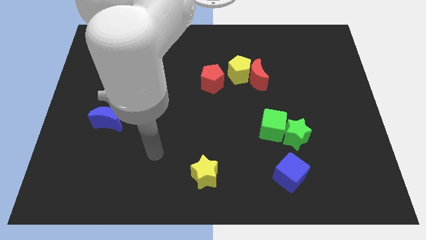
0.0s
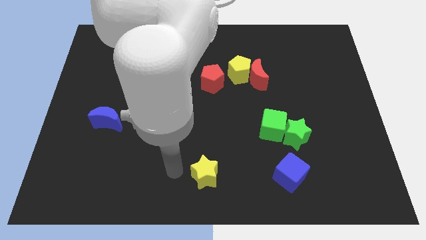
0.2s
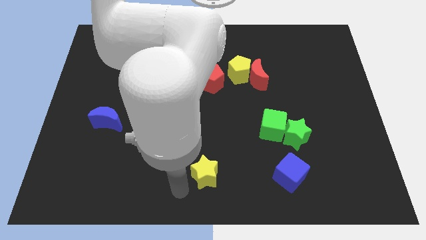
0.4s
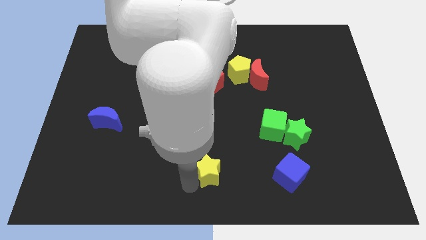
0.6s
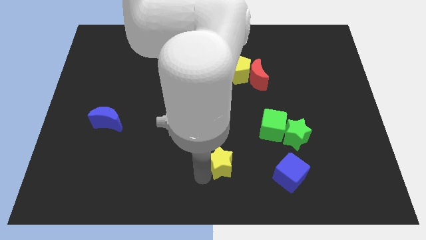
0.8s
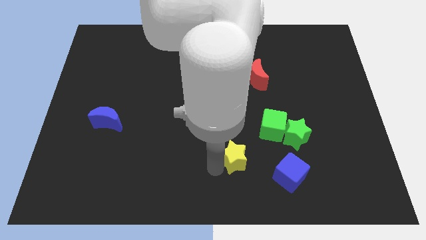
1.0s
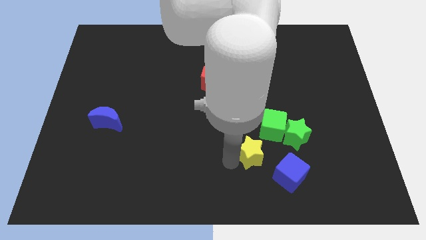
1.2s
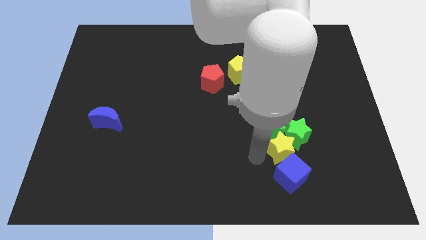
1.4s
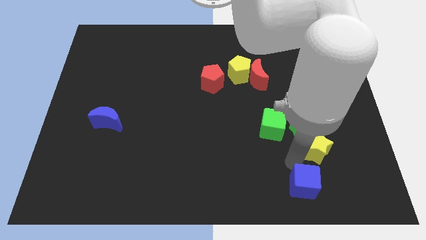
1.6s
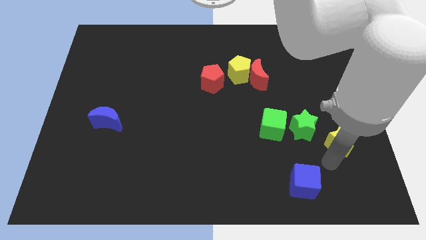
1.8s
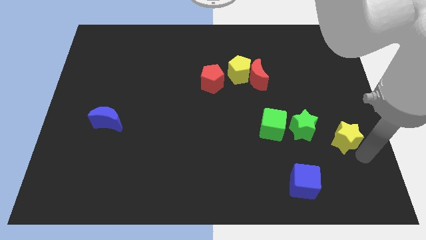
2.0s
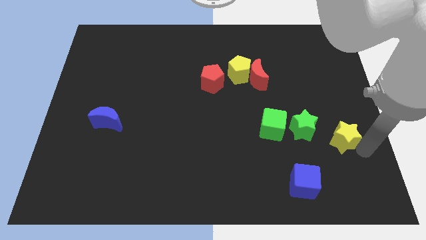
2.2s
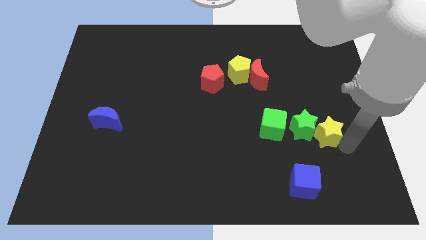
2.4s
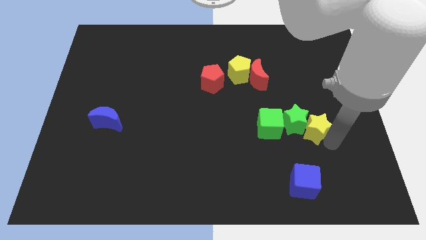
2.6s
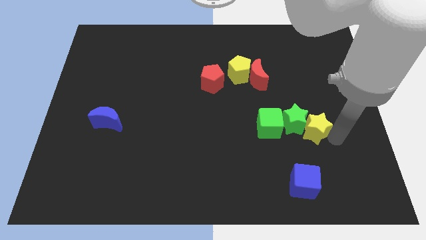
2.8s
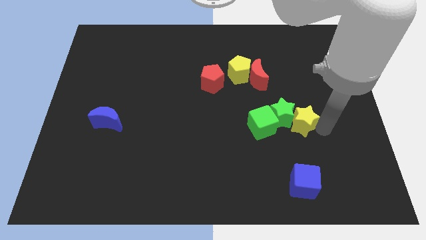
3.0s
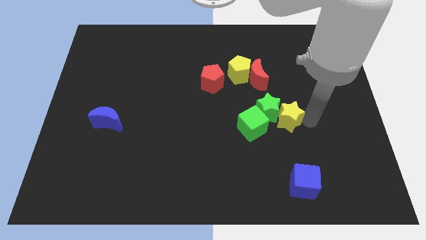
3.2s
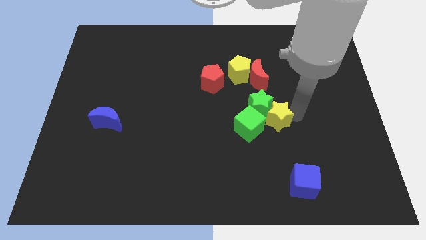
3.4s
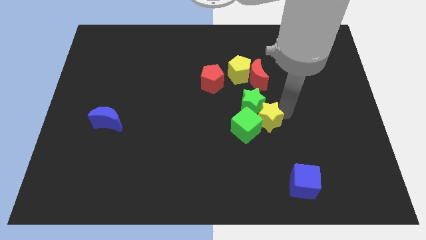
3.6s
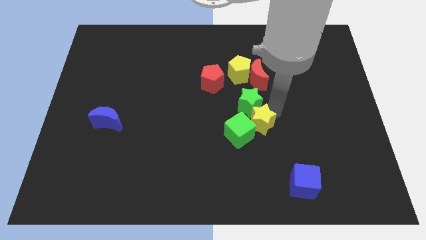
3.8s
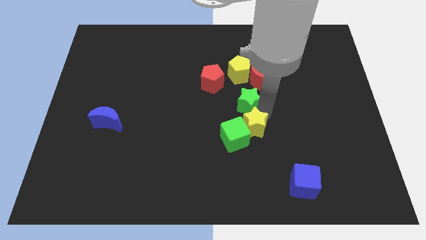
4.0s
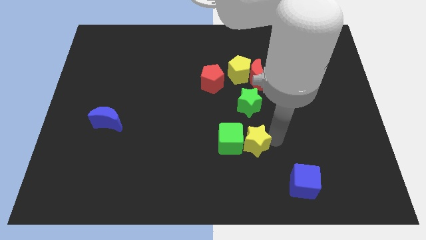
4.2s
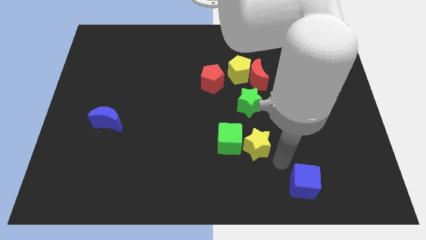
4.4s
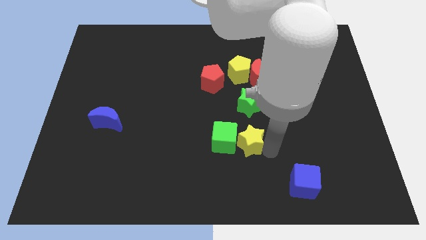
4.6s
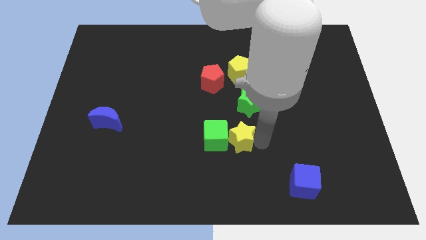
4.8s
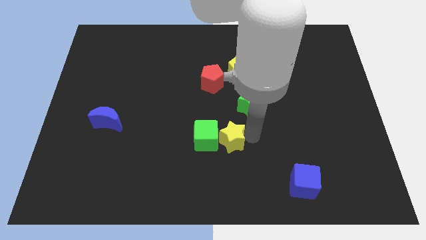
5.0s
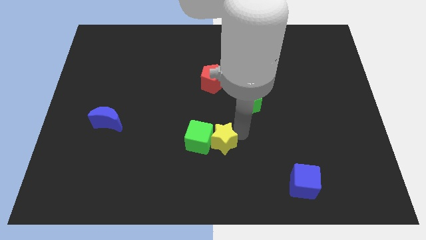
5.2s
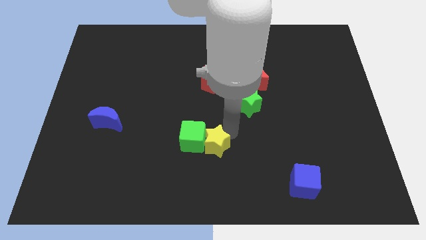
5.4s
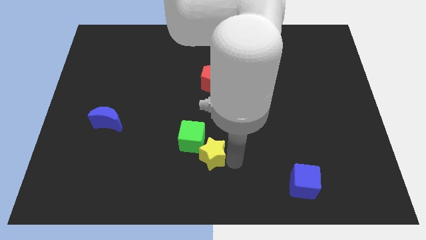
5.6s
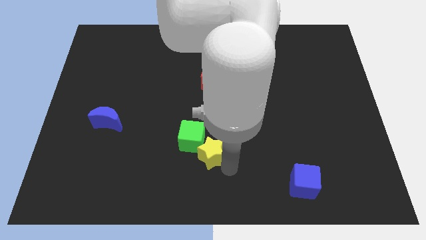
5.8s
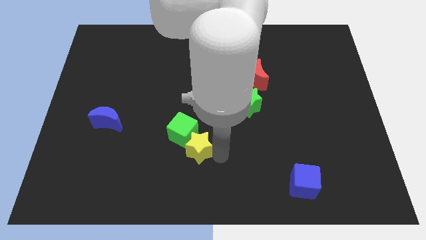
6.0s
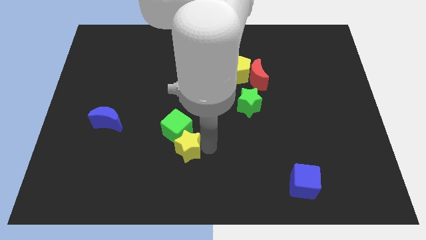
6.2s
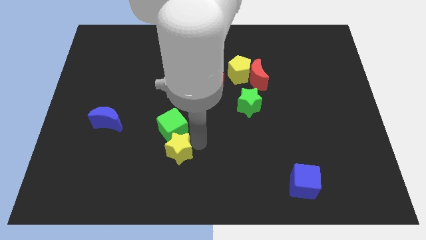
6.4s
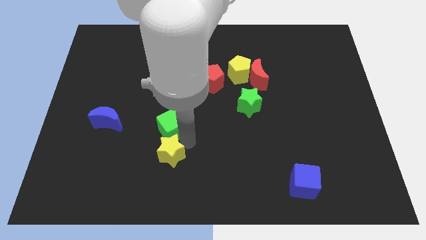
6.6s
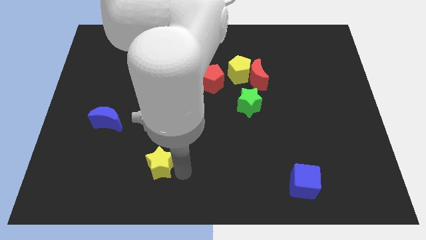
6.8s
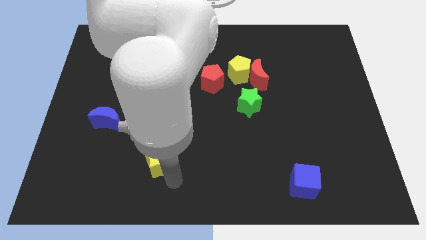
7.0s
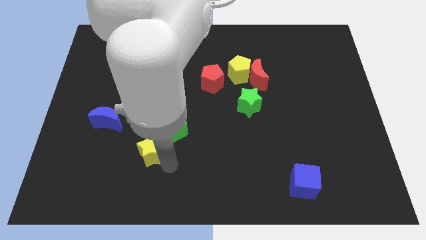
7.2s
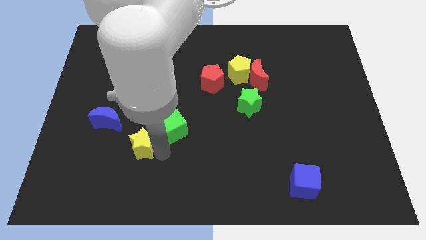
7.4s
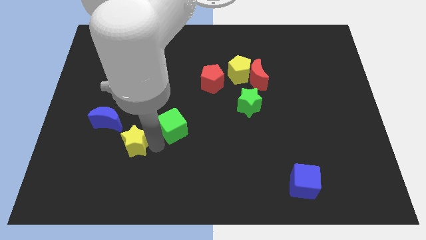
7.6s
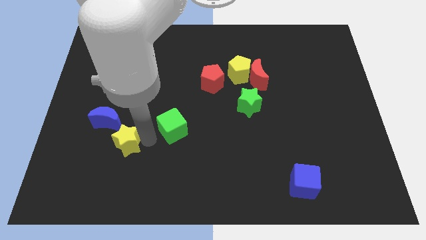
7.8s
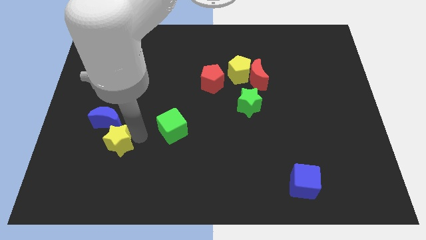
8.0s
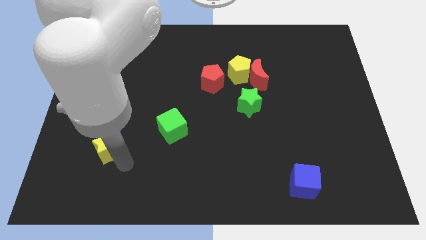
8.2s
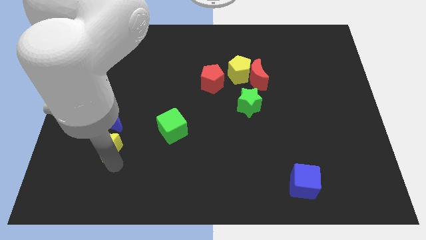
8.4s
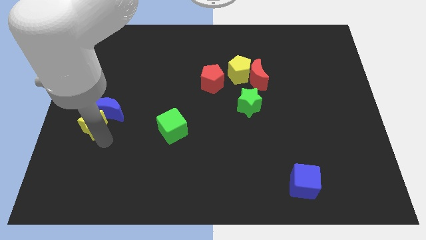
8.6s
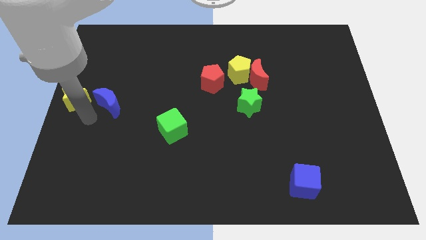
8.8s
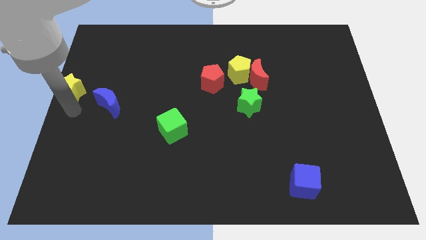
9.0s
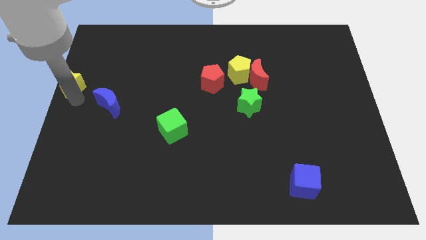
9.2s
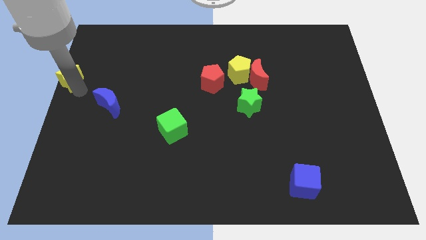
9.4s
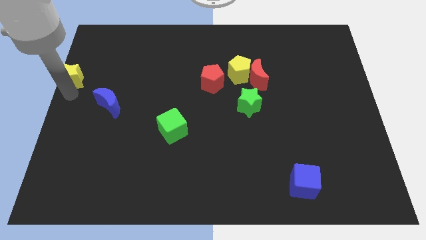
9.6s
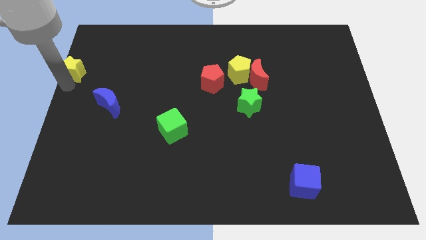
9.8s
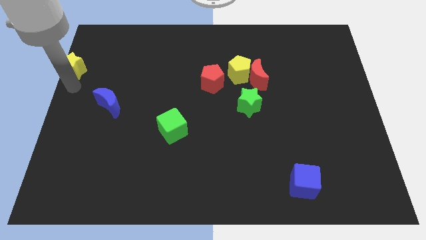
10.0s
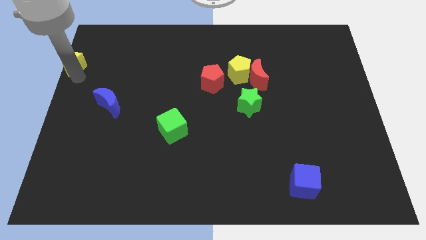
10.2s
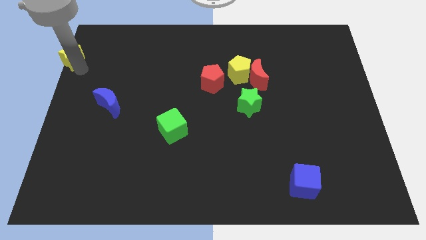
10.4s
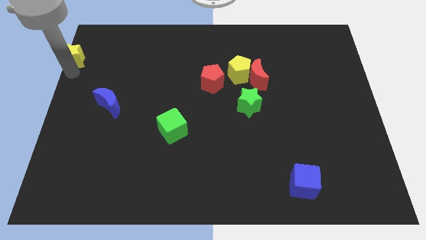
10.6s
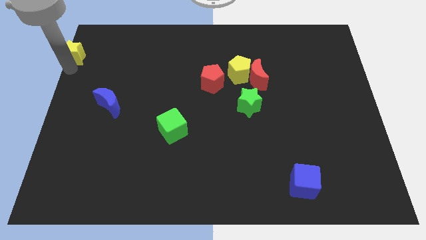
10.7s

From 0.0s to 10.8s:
slide the yellow star to the upper left corner
